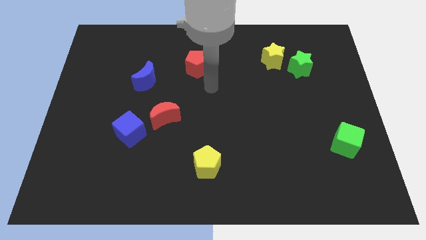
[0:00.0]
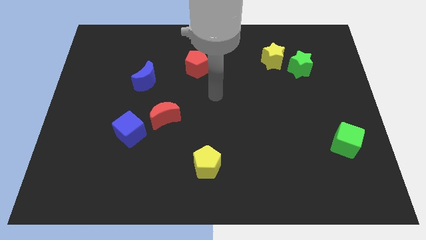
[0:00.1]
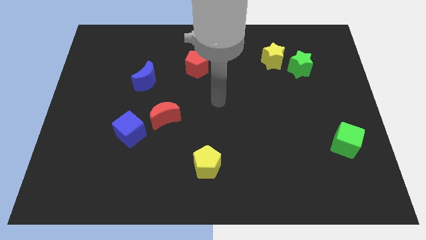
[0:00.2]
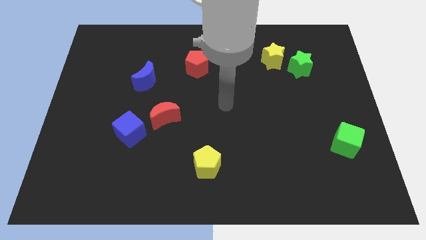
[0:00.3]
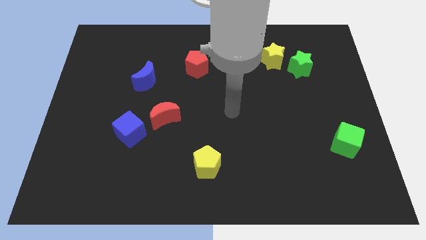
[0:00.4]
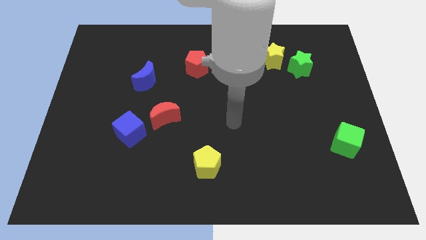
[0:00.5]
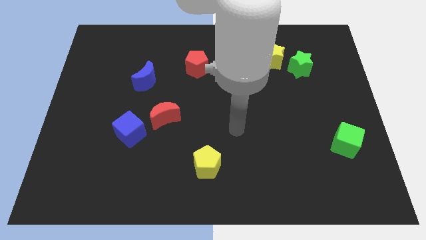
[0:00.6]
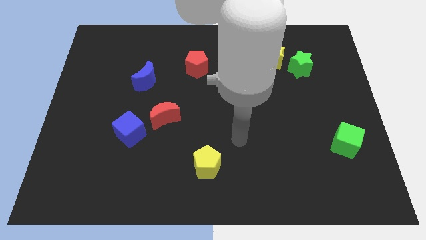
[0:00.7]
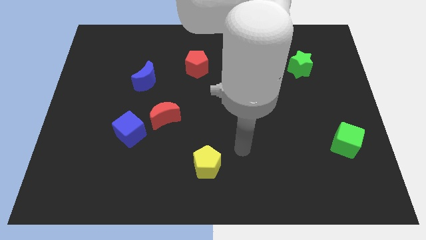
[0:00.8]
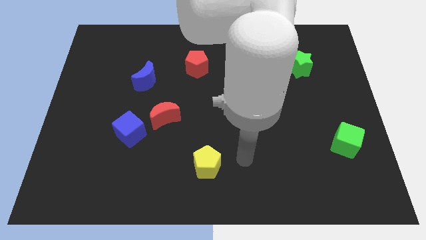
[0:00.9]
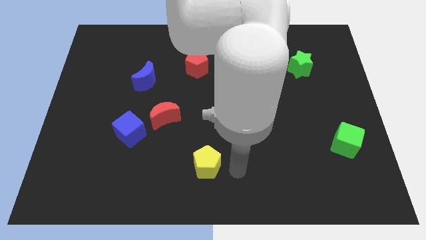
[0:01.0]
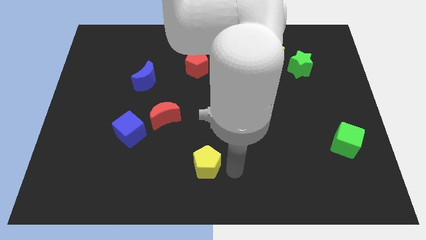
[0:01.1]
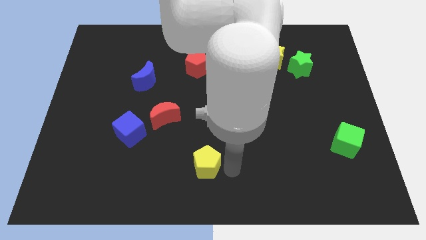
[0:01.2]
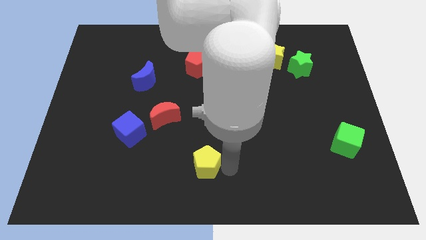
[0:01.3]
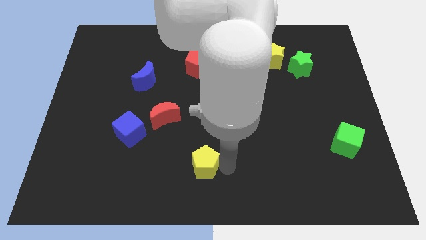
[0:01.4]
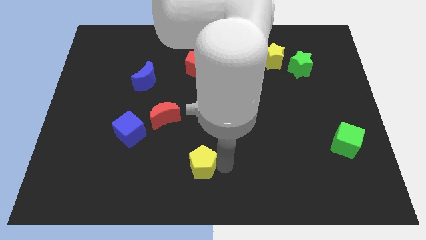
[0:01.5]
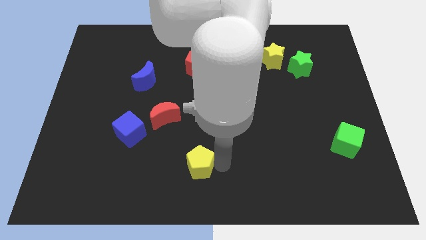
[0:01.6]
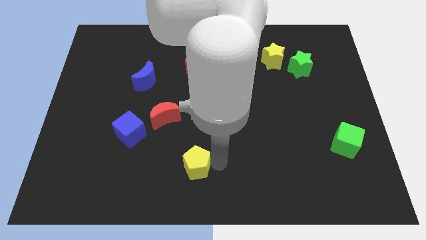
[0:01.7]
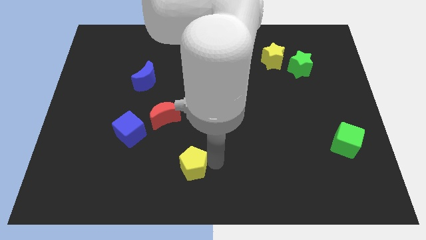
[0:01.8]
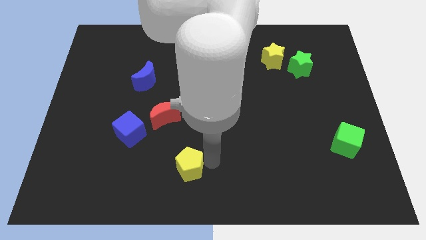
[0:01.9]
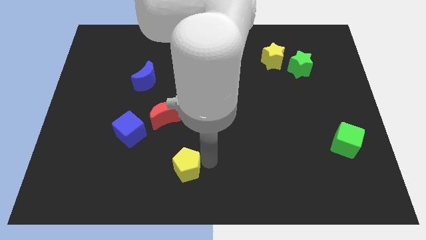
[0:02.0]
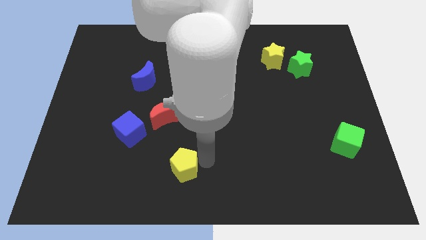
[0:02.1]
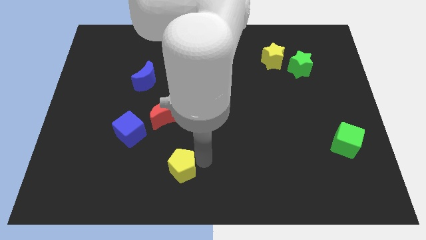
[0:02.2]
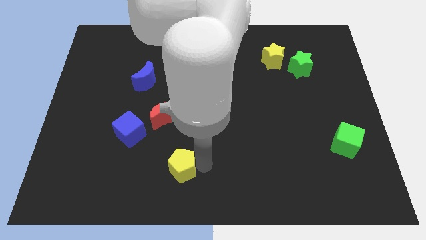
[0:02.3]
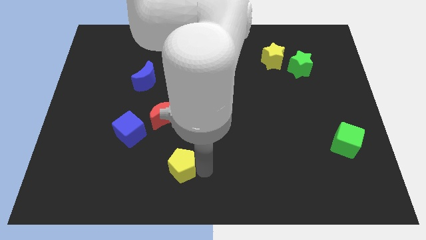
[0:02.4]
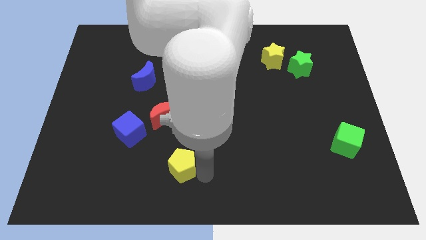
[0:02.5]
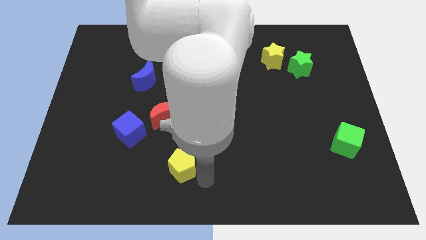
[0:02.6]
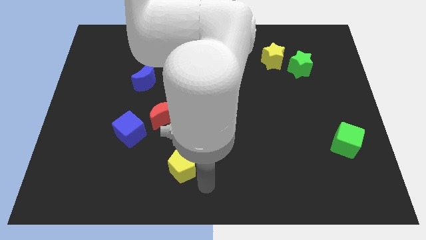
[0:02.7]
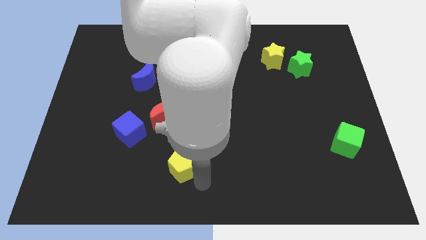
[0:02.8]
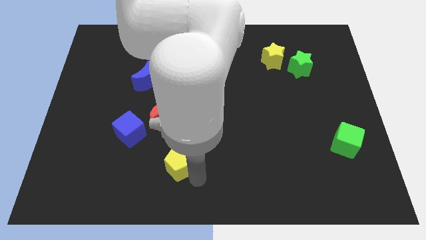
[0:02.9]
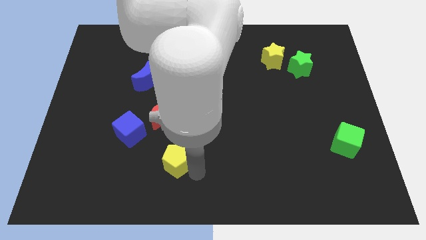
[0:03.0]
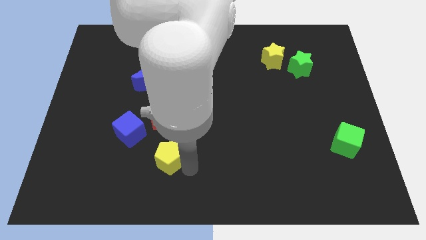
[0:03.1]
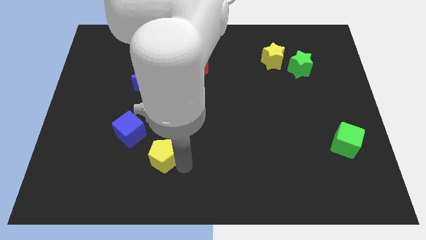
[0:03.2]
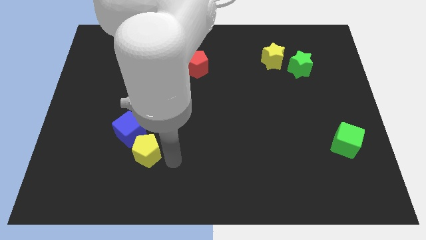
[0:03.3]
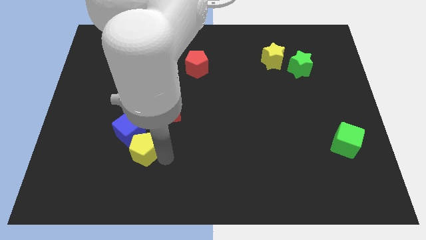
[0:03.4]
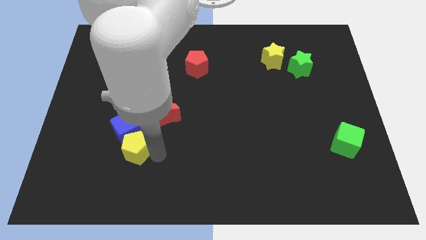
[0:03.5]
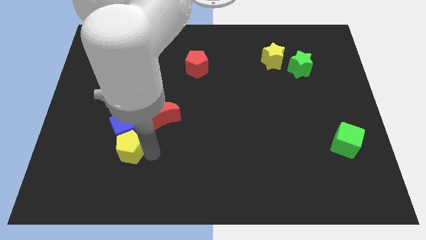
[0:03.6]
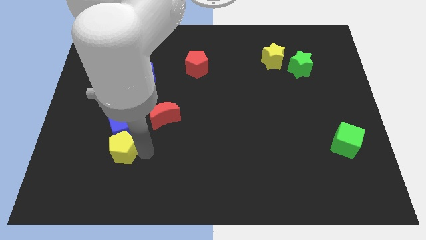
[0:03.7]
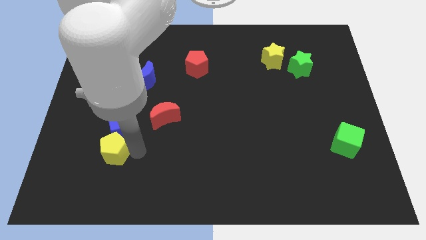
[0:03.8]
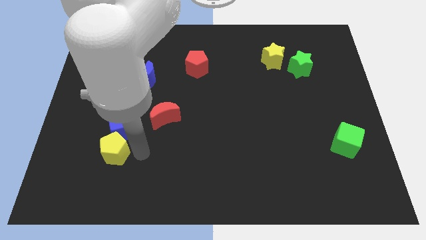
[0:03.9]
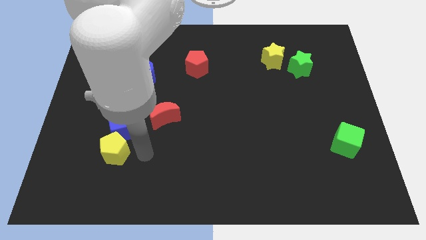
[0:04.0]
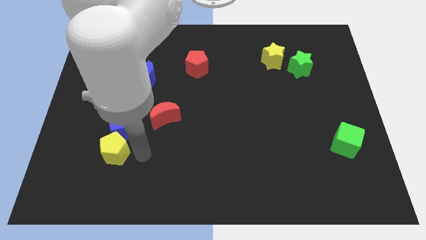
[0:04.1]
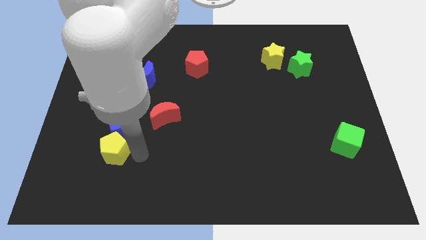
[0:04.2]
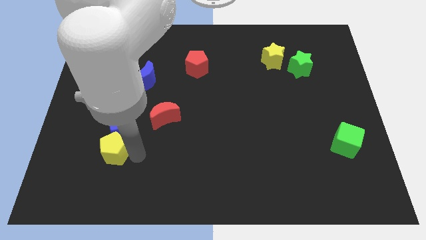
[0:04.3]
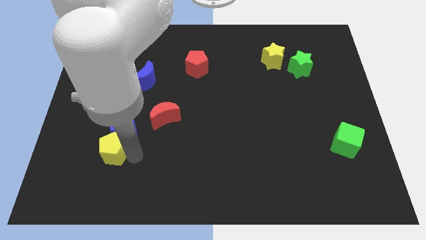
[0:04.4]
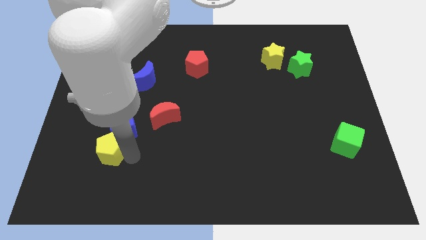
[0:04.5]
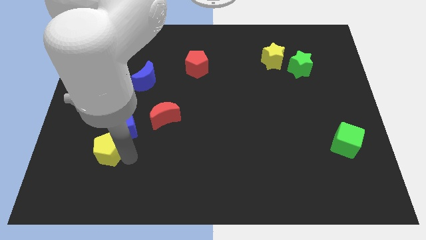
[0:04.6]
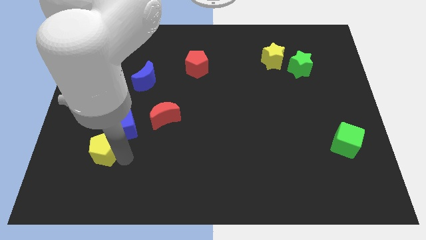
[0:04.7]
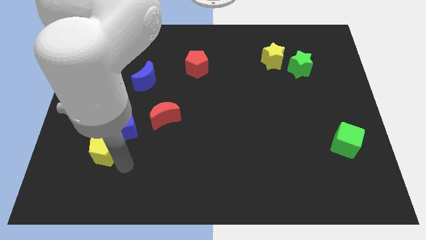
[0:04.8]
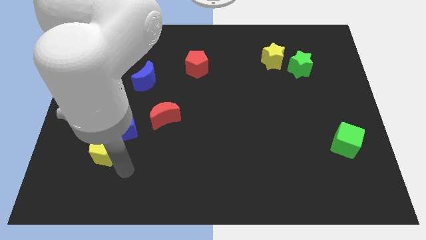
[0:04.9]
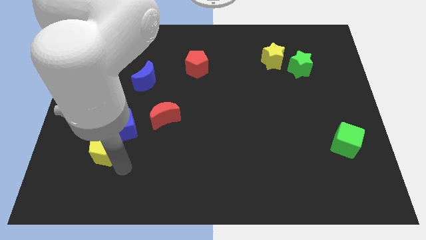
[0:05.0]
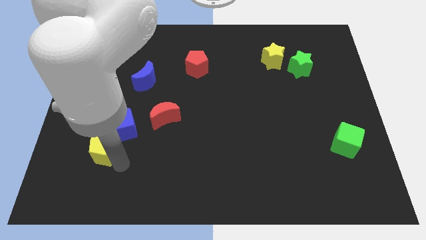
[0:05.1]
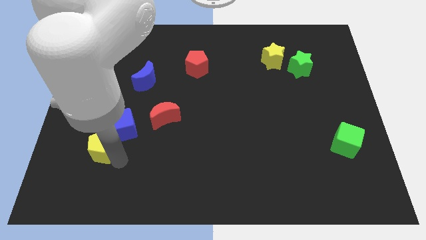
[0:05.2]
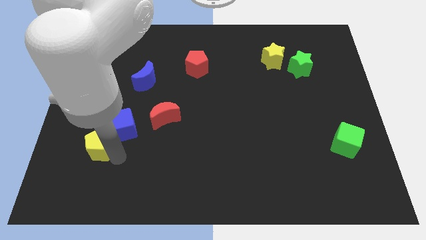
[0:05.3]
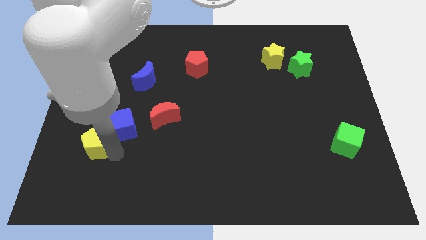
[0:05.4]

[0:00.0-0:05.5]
push the yellow pentagon left of the blue cube

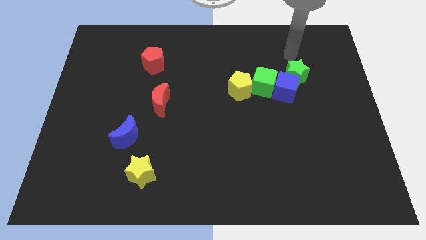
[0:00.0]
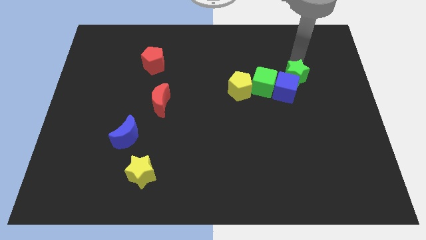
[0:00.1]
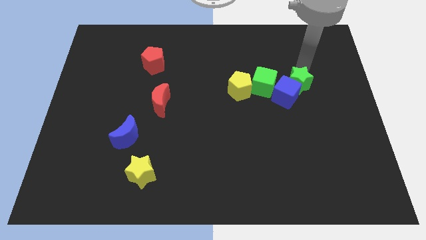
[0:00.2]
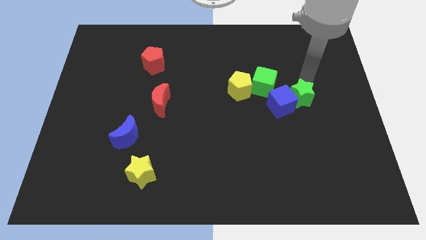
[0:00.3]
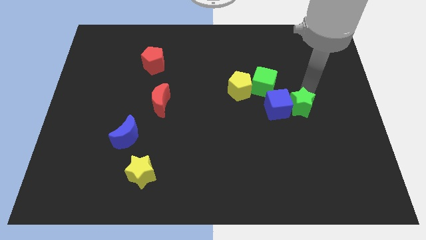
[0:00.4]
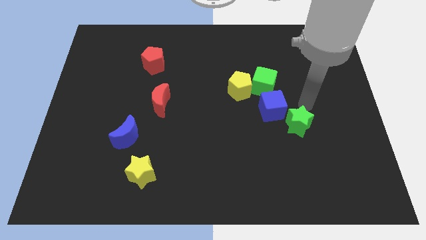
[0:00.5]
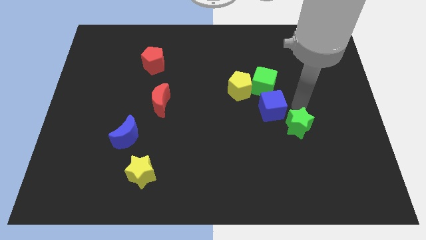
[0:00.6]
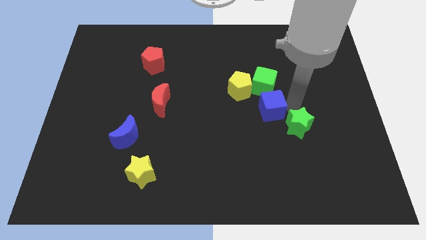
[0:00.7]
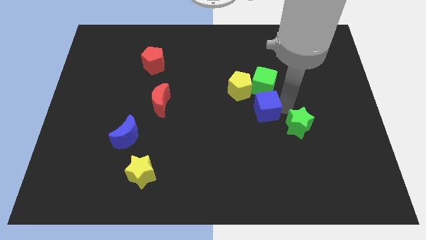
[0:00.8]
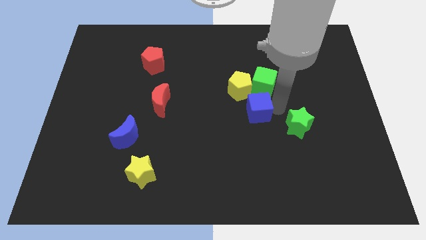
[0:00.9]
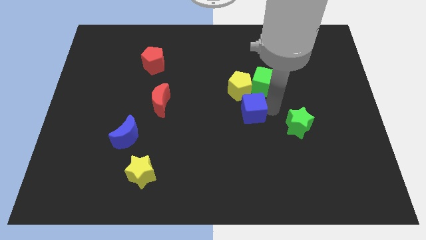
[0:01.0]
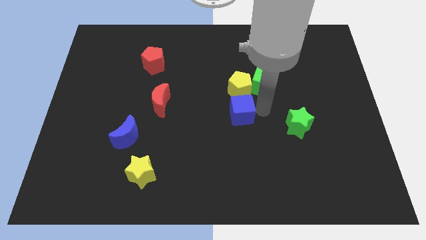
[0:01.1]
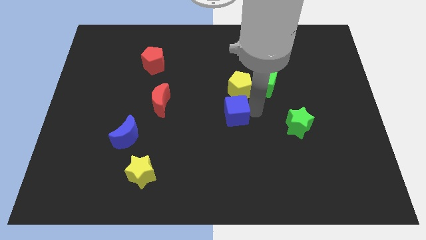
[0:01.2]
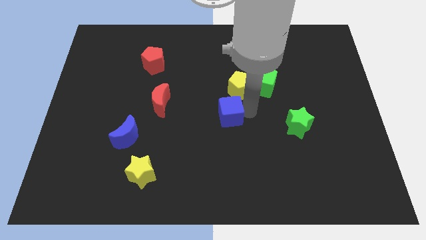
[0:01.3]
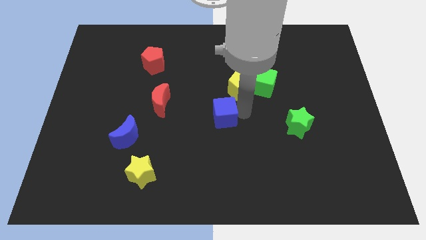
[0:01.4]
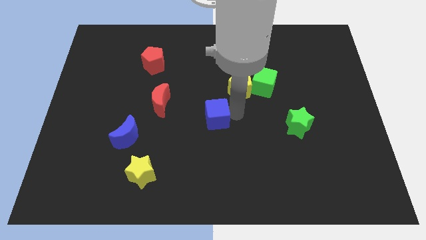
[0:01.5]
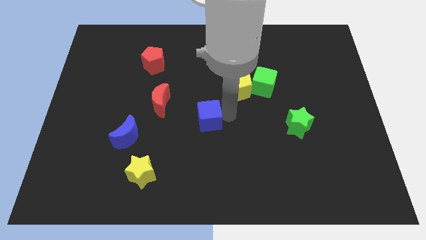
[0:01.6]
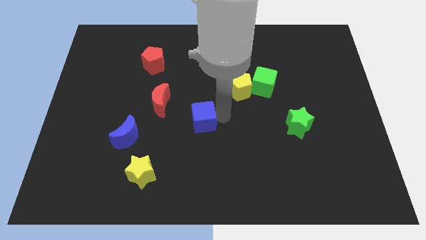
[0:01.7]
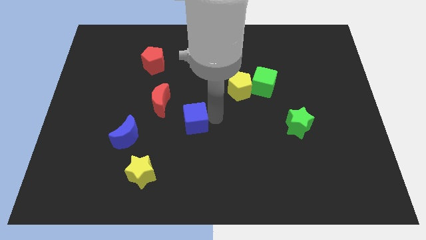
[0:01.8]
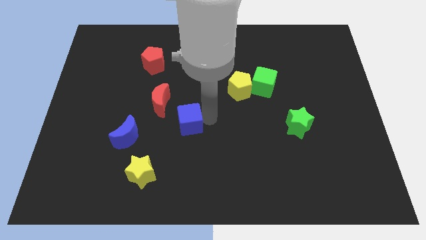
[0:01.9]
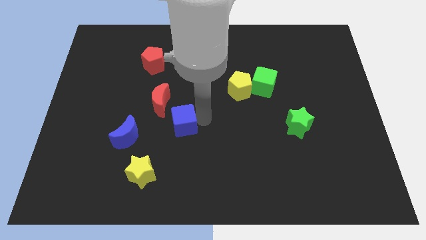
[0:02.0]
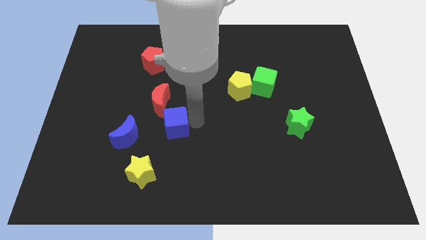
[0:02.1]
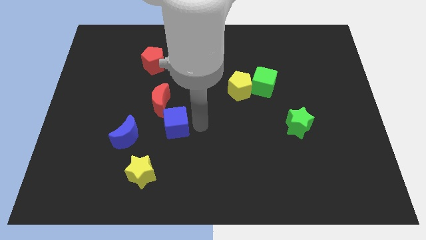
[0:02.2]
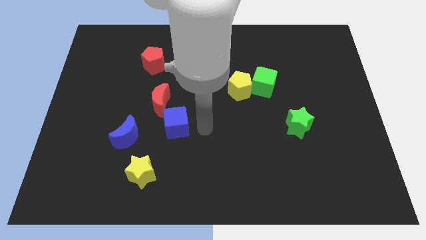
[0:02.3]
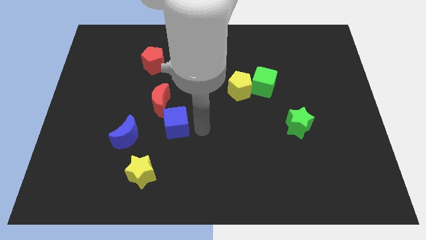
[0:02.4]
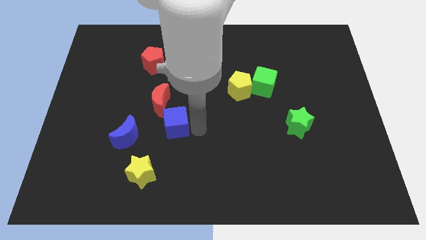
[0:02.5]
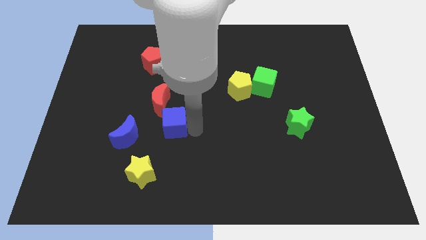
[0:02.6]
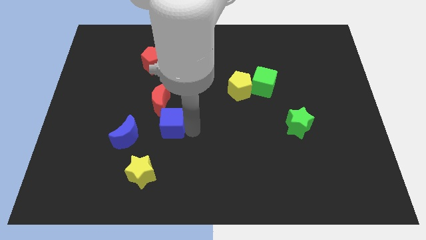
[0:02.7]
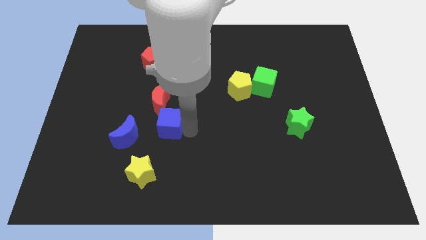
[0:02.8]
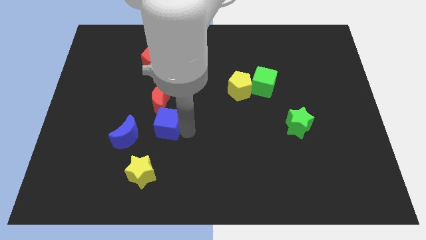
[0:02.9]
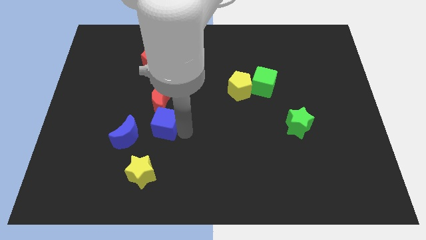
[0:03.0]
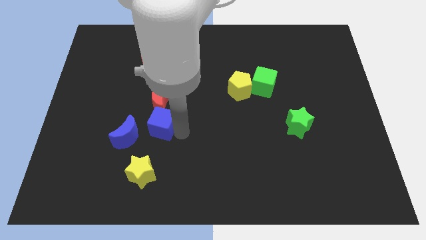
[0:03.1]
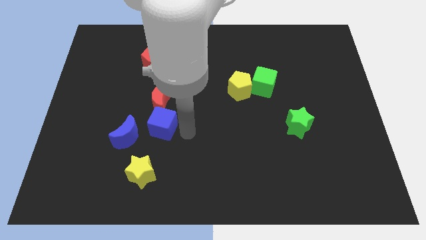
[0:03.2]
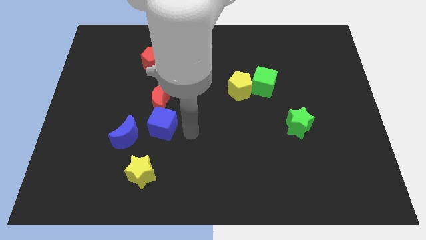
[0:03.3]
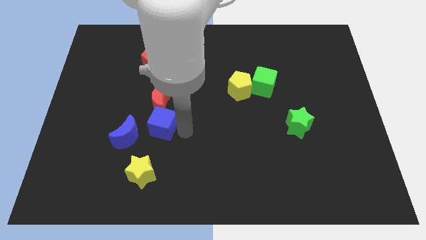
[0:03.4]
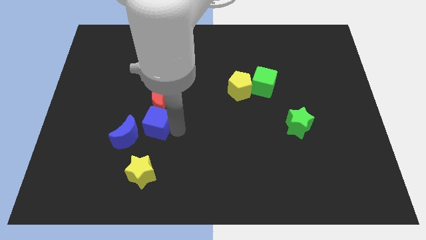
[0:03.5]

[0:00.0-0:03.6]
put the blue cube to the bottom left of the red moon
